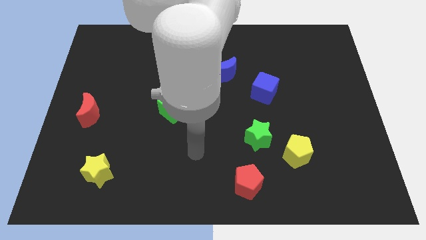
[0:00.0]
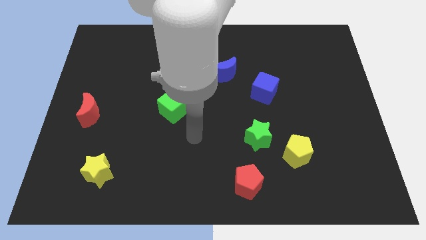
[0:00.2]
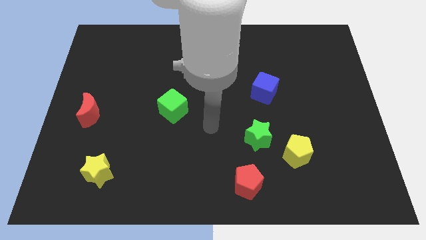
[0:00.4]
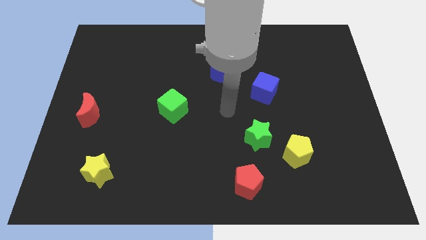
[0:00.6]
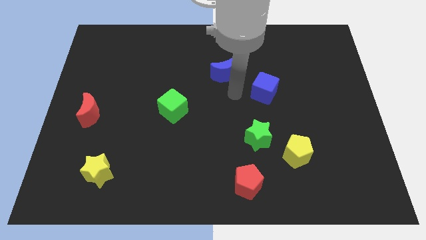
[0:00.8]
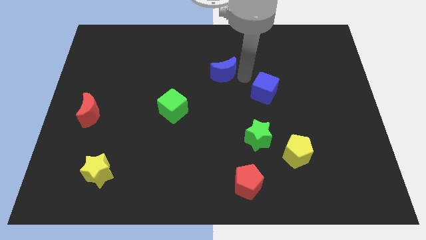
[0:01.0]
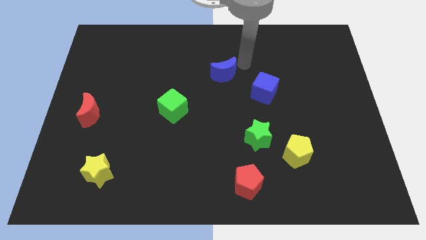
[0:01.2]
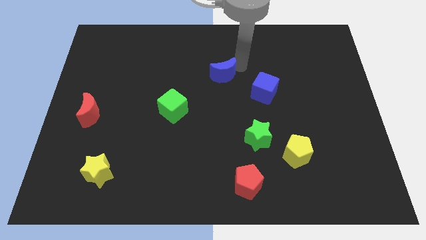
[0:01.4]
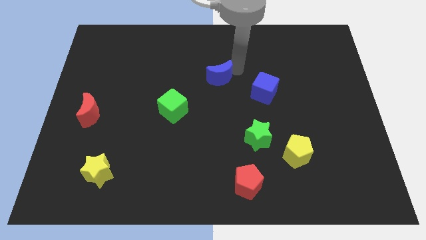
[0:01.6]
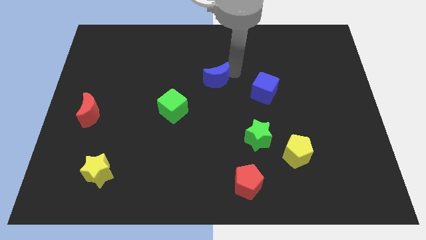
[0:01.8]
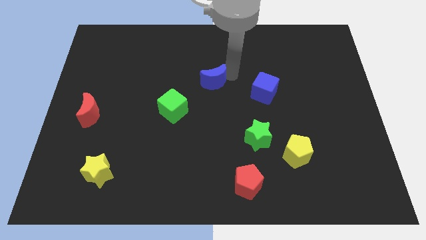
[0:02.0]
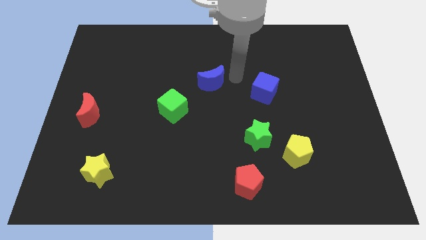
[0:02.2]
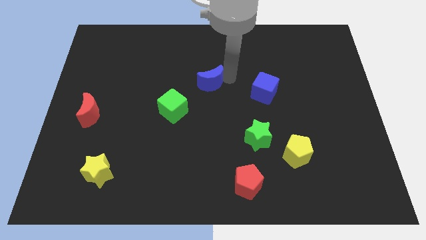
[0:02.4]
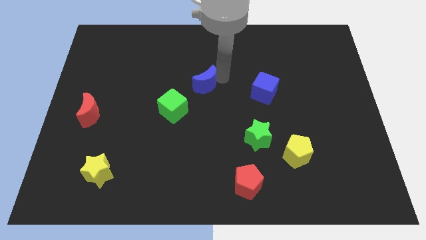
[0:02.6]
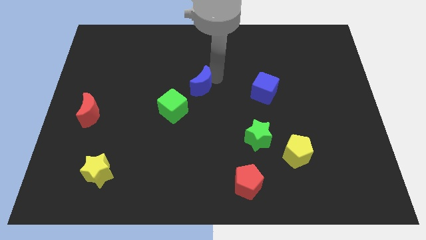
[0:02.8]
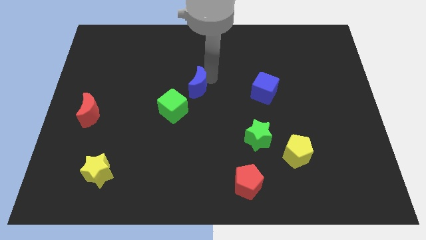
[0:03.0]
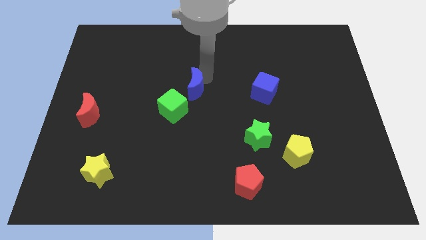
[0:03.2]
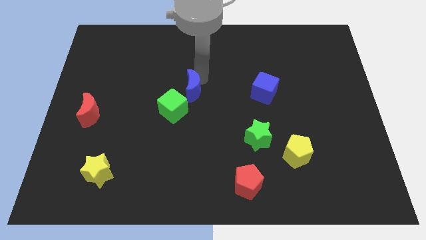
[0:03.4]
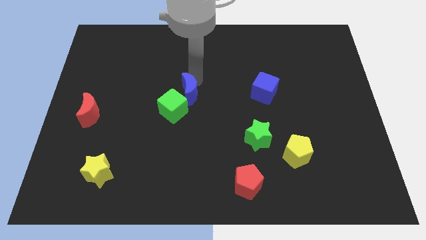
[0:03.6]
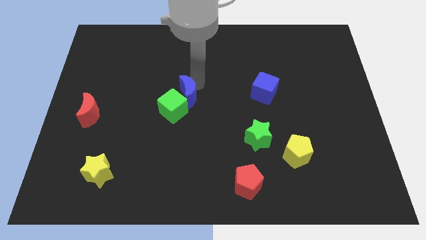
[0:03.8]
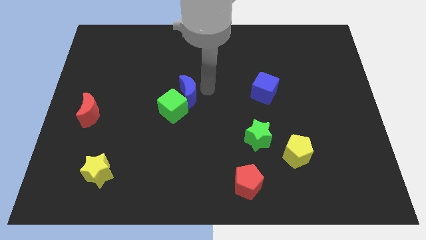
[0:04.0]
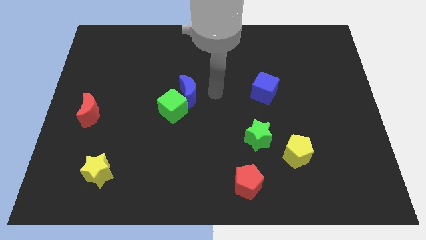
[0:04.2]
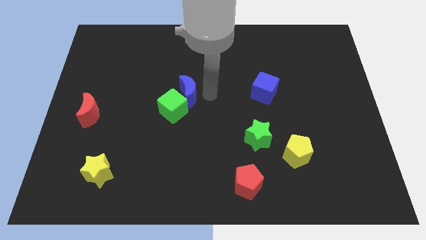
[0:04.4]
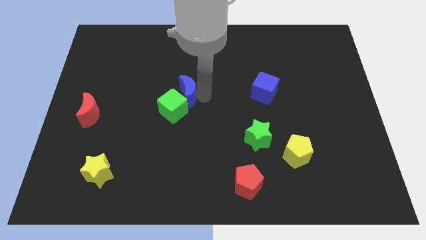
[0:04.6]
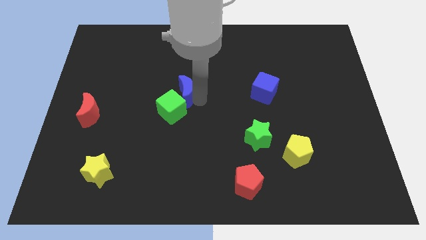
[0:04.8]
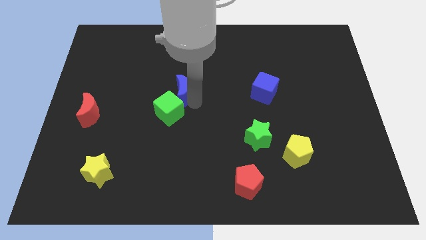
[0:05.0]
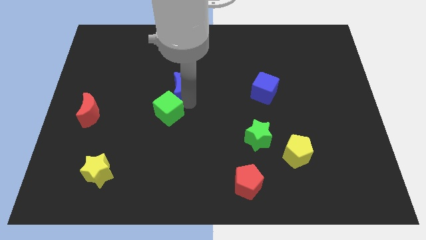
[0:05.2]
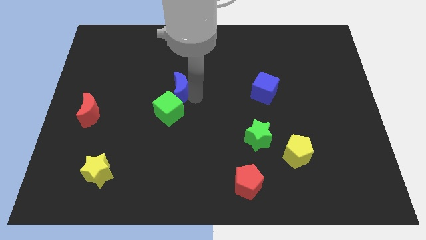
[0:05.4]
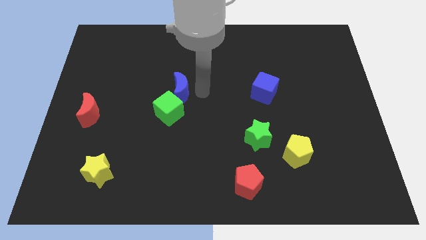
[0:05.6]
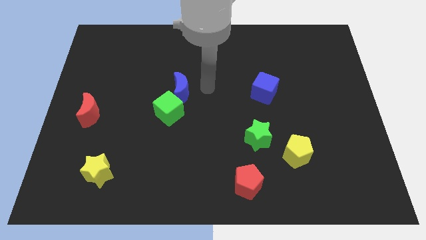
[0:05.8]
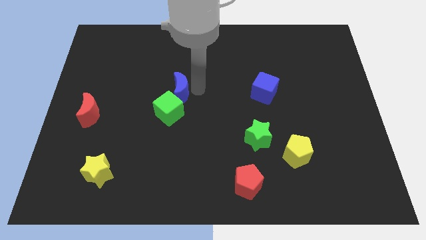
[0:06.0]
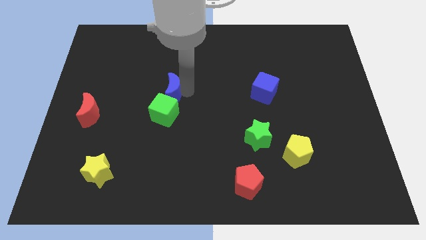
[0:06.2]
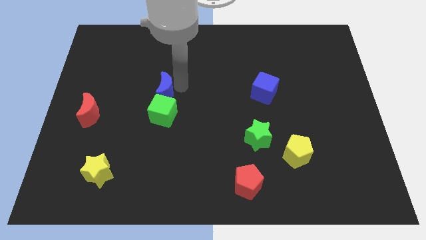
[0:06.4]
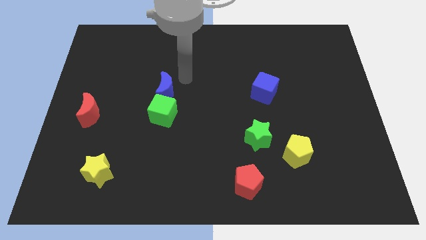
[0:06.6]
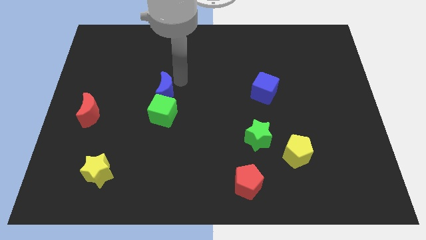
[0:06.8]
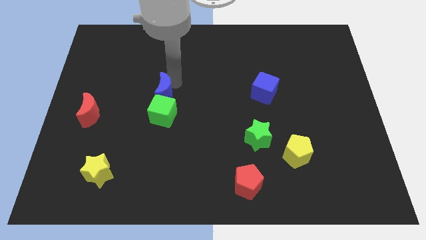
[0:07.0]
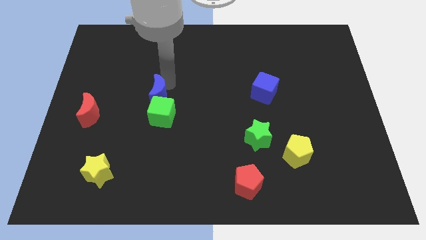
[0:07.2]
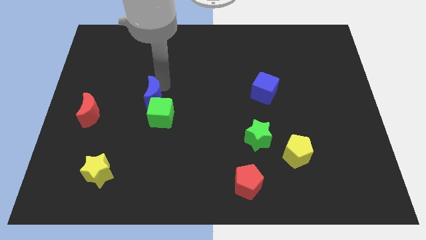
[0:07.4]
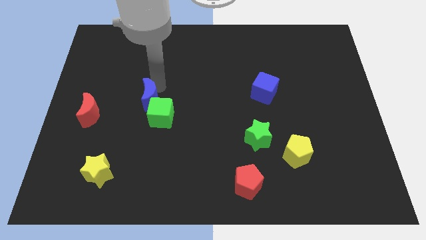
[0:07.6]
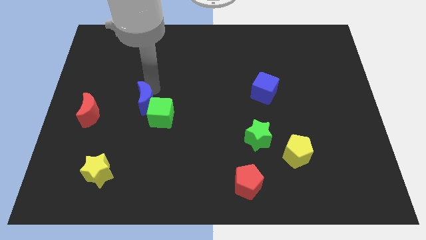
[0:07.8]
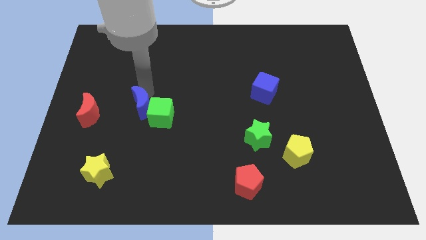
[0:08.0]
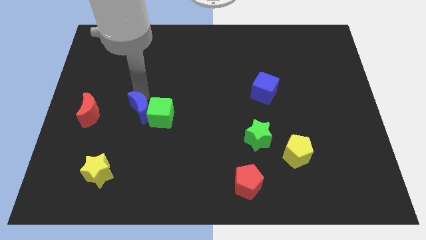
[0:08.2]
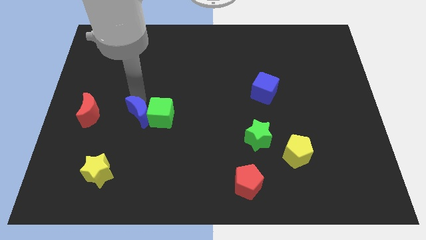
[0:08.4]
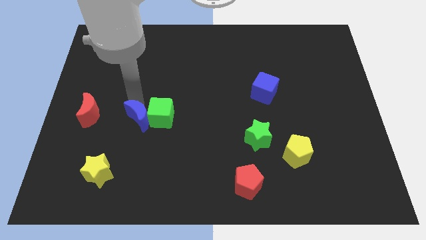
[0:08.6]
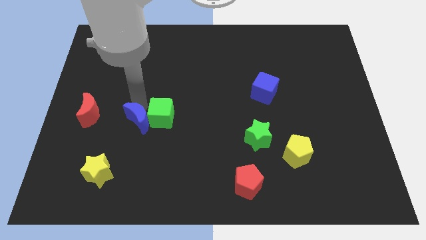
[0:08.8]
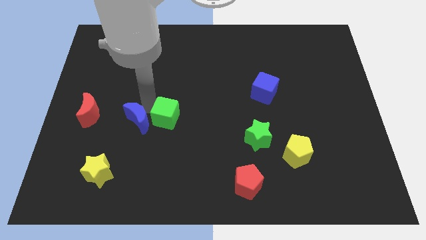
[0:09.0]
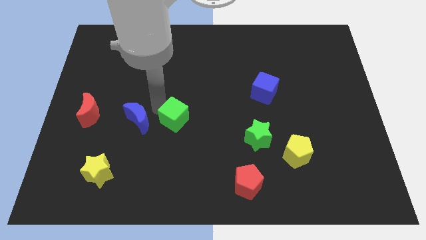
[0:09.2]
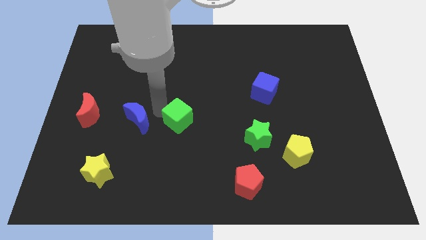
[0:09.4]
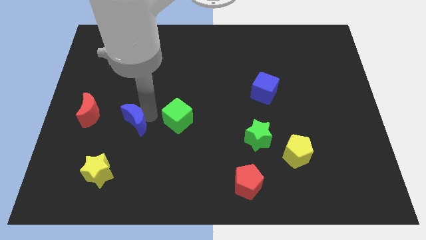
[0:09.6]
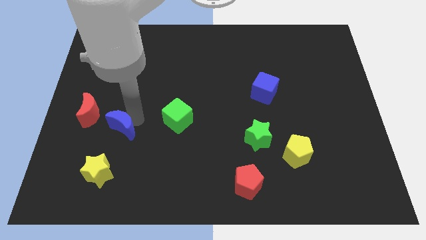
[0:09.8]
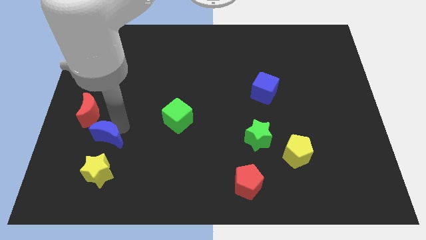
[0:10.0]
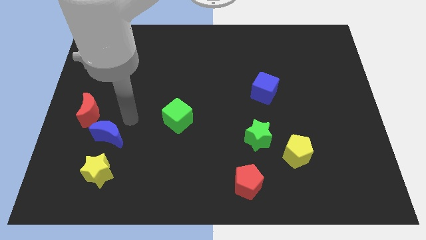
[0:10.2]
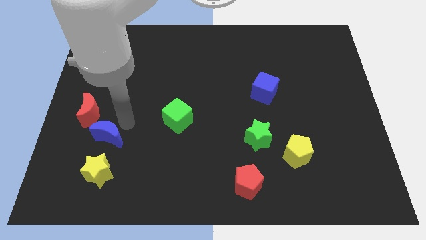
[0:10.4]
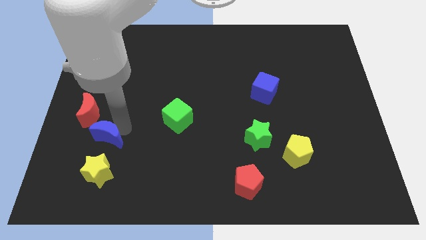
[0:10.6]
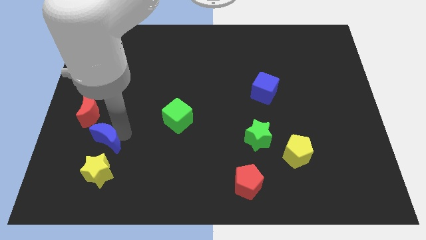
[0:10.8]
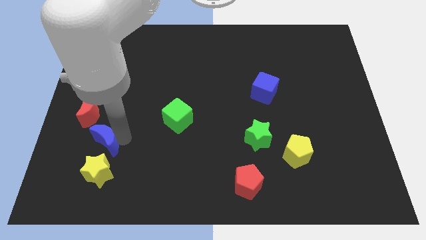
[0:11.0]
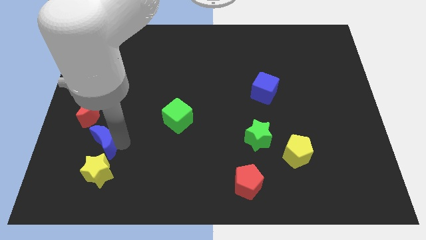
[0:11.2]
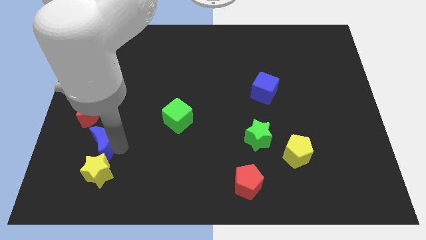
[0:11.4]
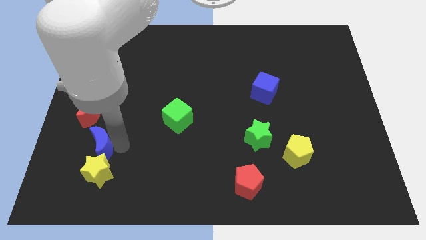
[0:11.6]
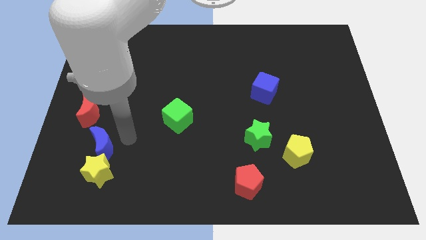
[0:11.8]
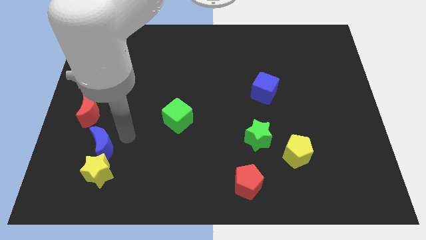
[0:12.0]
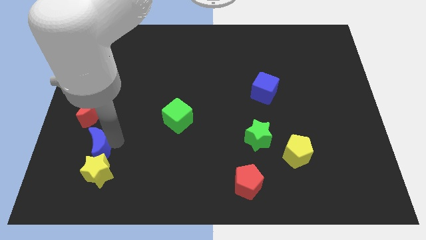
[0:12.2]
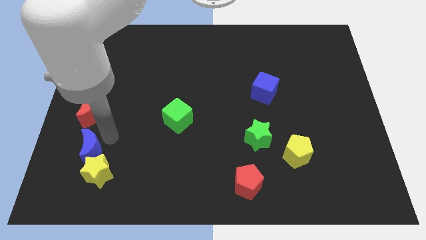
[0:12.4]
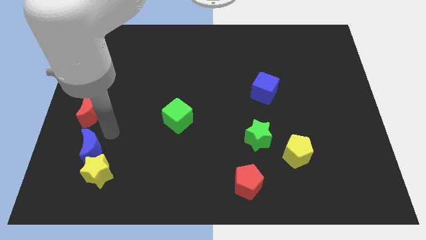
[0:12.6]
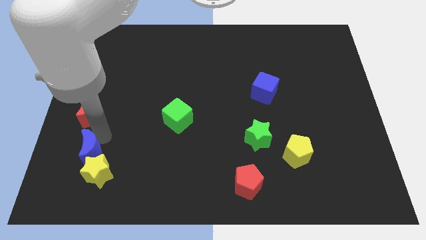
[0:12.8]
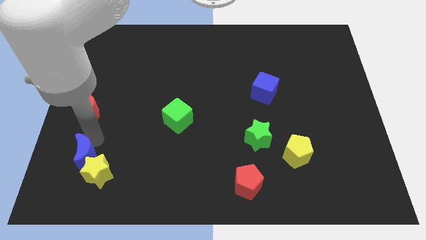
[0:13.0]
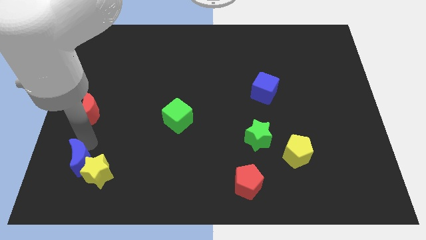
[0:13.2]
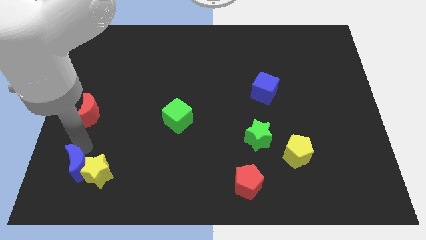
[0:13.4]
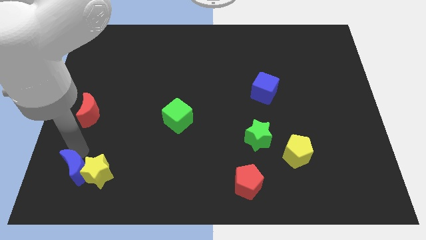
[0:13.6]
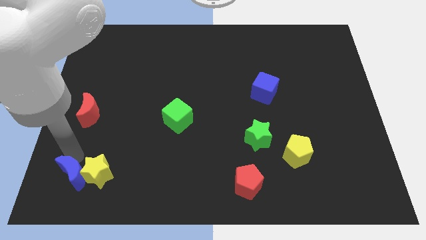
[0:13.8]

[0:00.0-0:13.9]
push the blue moon to the bottom left
